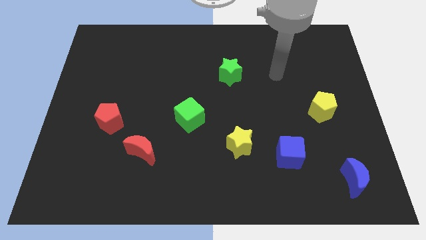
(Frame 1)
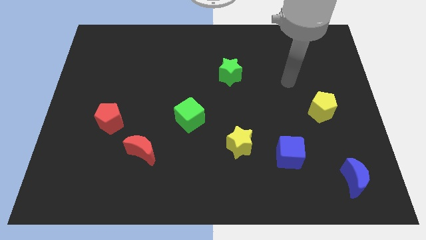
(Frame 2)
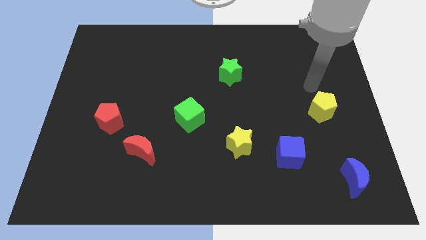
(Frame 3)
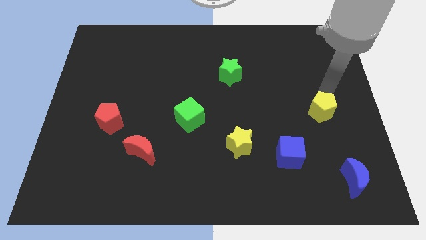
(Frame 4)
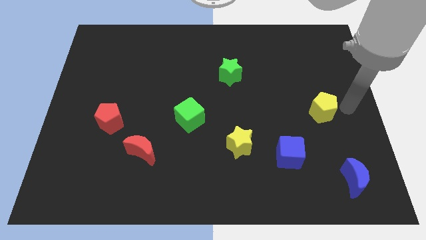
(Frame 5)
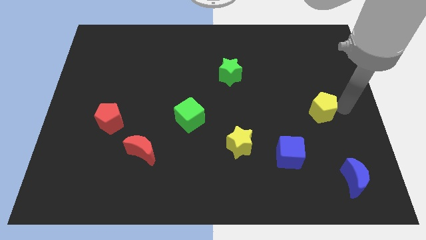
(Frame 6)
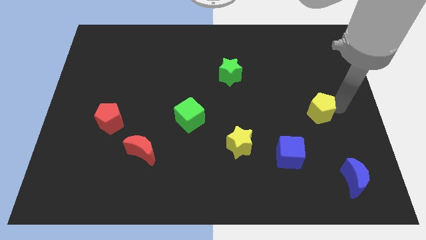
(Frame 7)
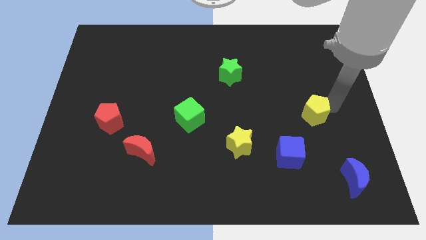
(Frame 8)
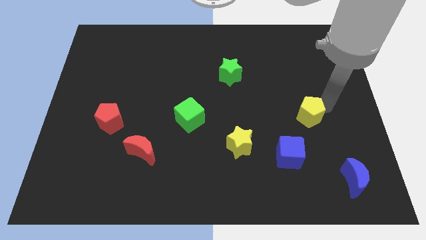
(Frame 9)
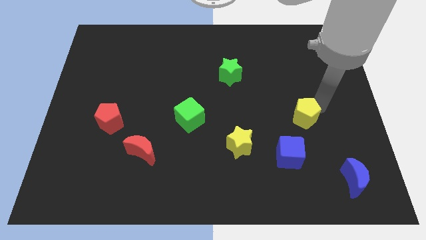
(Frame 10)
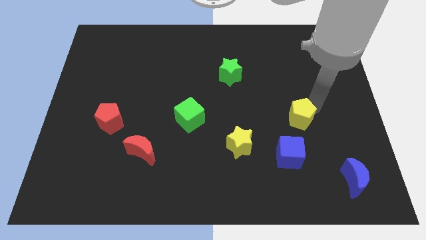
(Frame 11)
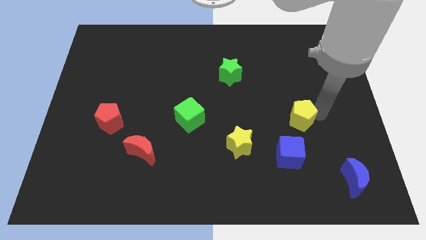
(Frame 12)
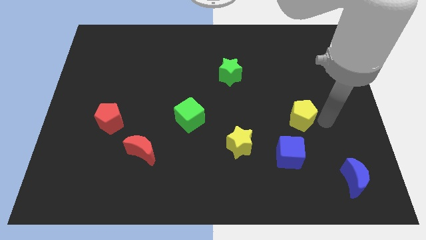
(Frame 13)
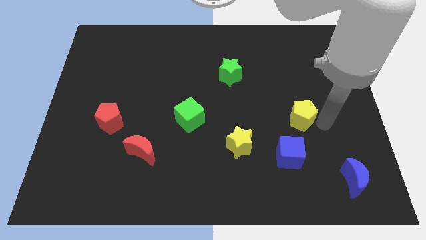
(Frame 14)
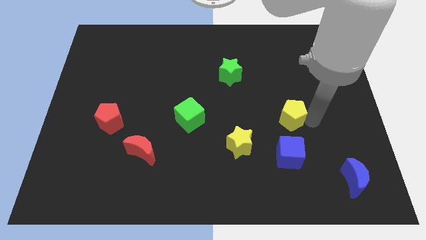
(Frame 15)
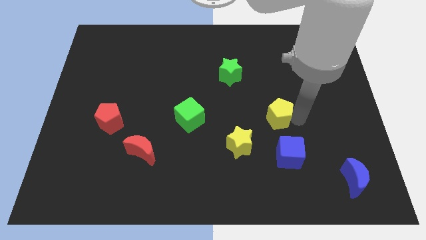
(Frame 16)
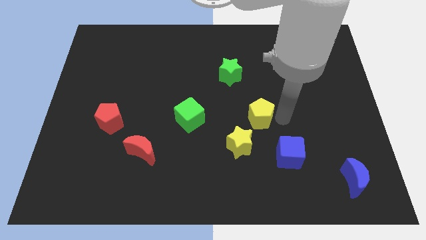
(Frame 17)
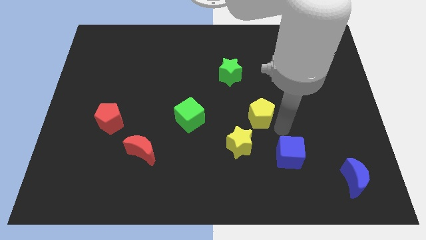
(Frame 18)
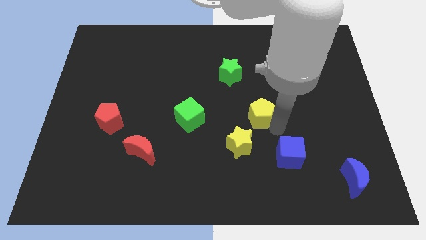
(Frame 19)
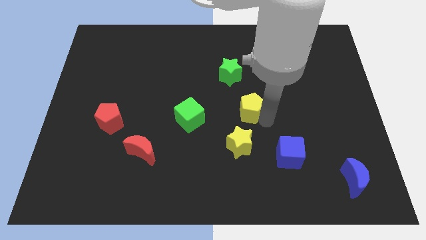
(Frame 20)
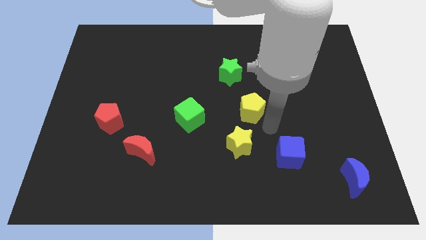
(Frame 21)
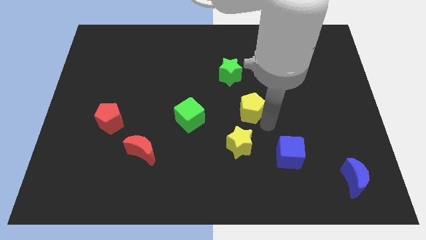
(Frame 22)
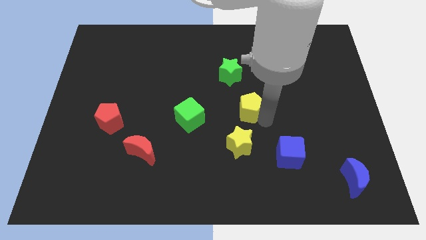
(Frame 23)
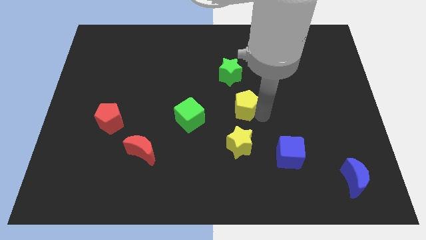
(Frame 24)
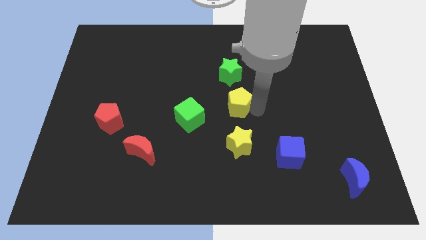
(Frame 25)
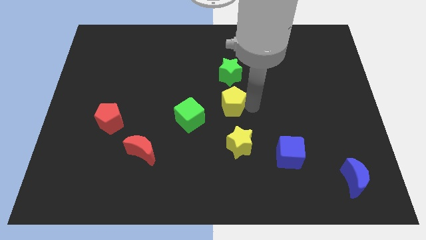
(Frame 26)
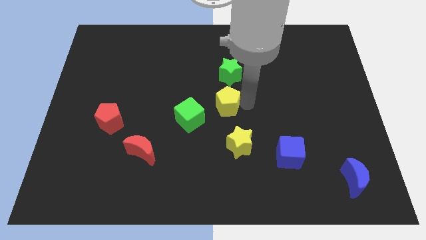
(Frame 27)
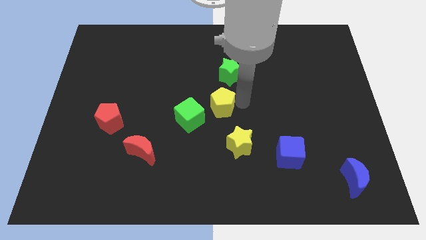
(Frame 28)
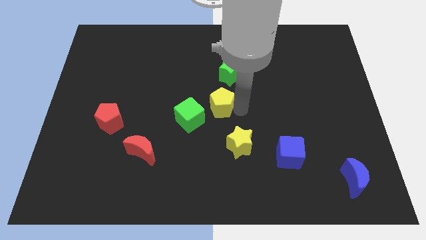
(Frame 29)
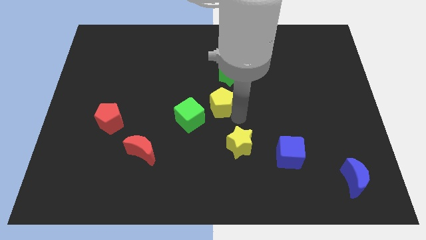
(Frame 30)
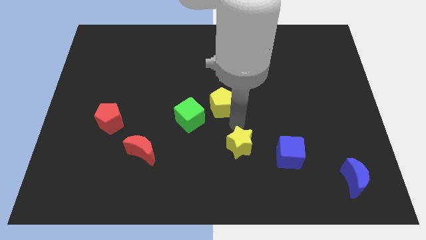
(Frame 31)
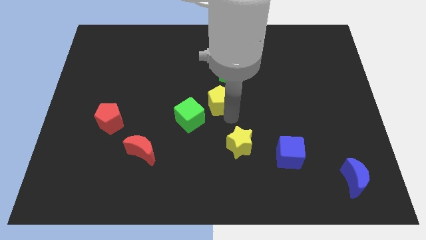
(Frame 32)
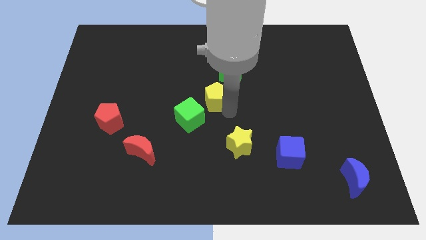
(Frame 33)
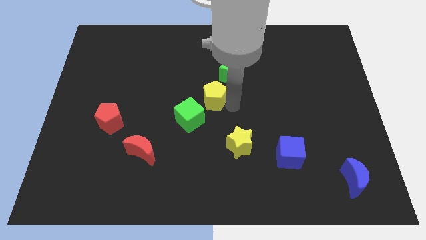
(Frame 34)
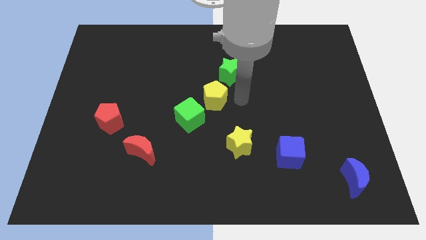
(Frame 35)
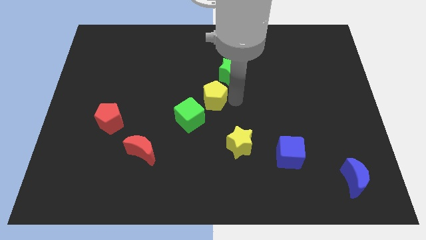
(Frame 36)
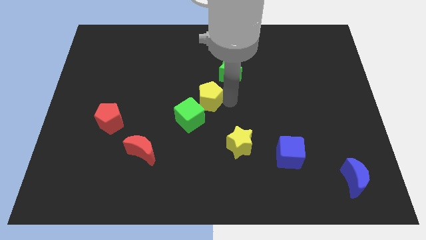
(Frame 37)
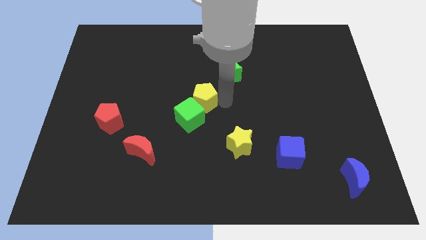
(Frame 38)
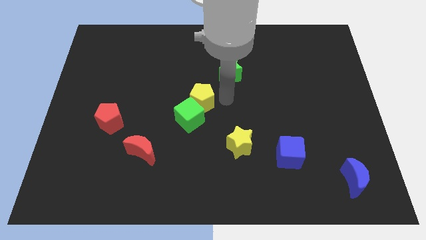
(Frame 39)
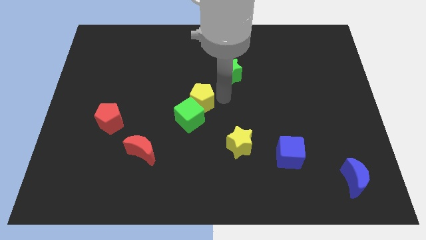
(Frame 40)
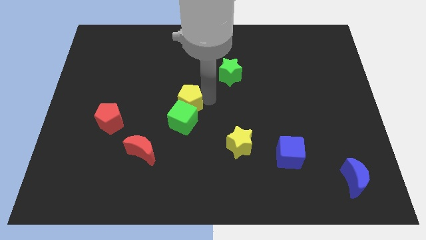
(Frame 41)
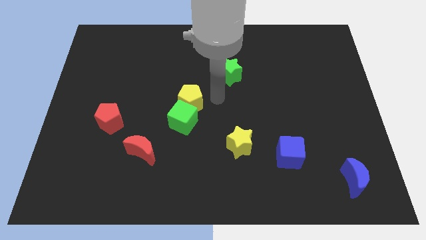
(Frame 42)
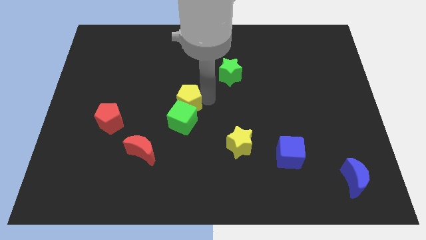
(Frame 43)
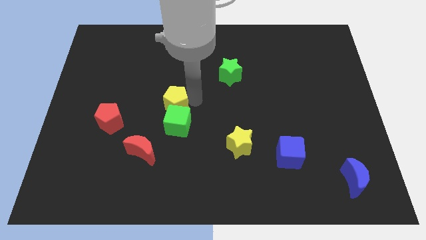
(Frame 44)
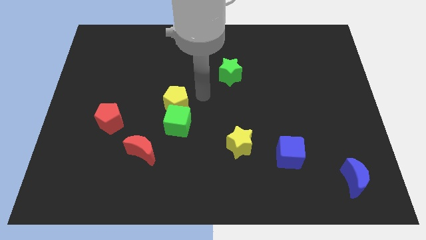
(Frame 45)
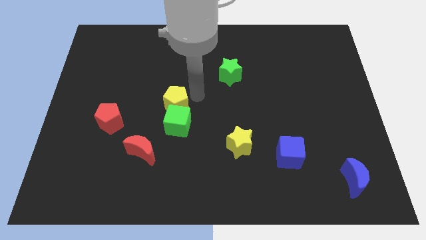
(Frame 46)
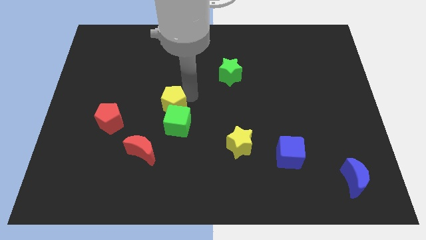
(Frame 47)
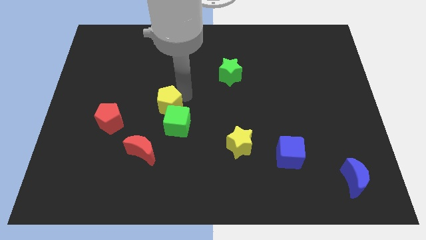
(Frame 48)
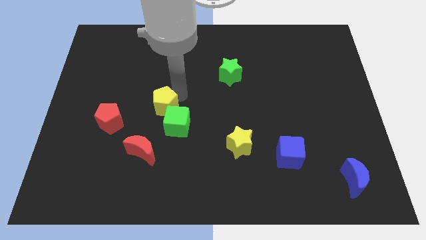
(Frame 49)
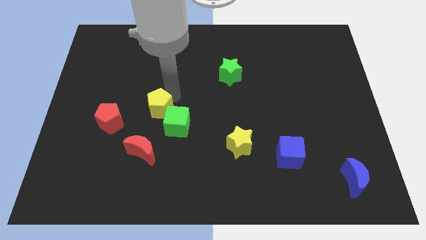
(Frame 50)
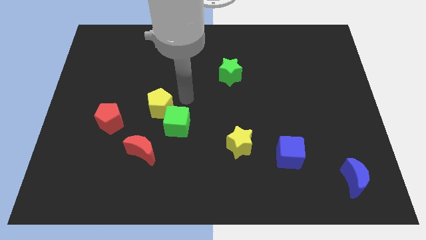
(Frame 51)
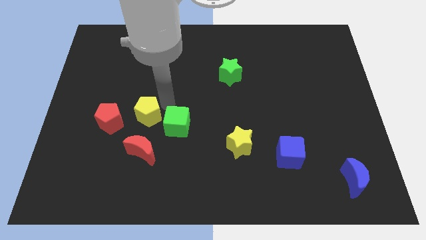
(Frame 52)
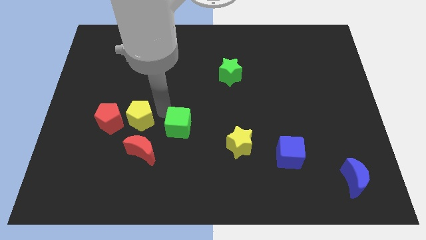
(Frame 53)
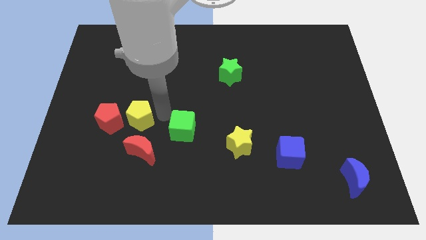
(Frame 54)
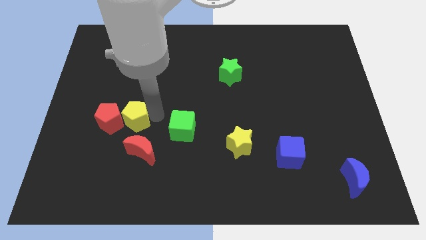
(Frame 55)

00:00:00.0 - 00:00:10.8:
push the yellow pentagon to the red pentagon

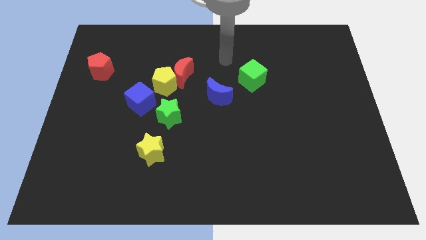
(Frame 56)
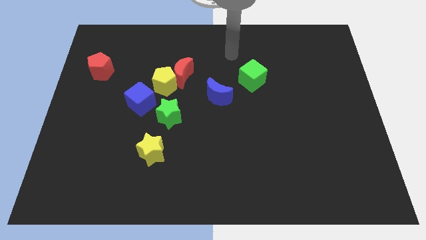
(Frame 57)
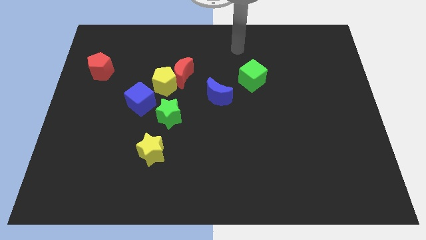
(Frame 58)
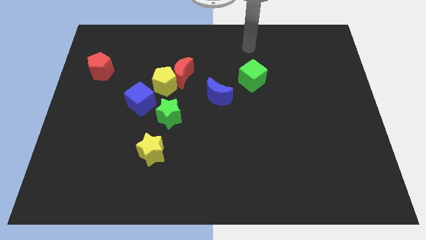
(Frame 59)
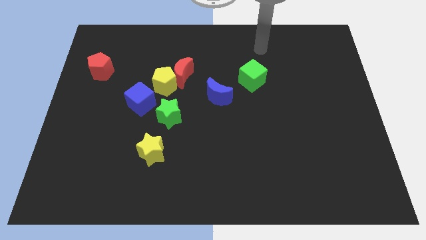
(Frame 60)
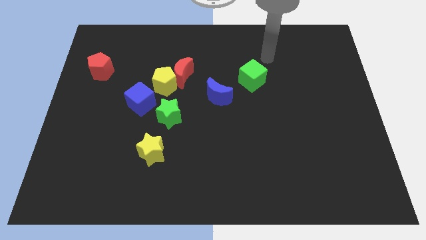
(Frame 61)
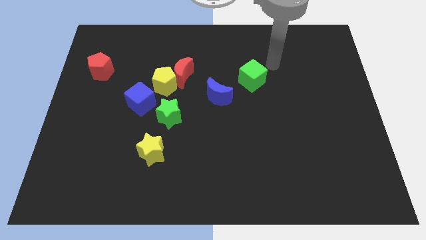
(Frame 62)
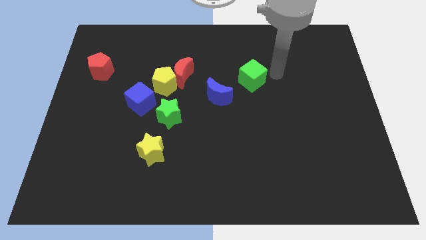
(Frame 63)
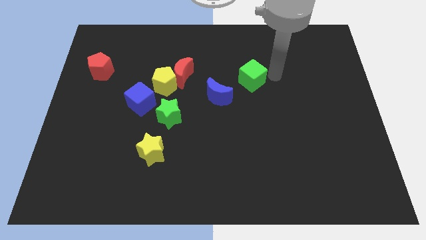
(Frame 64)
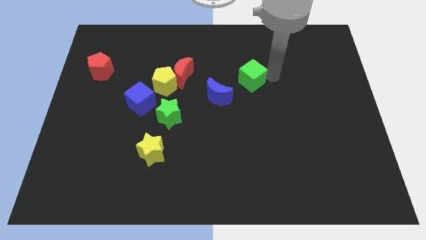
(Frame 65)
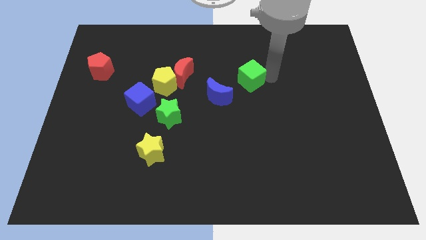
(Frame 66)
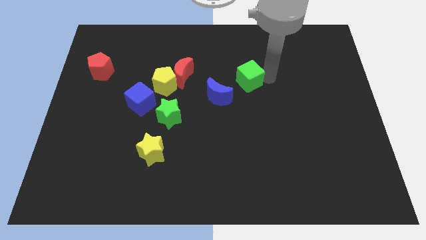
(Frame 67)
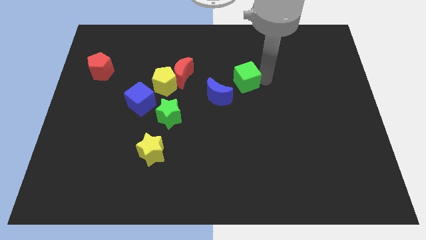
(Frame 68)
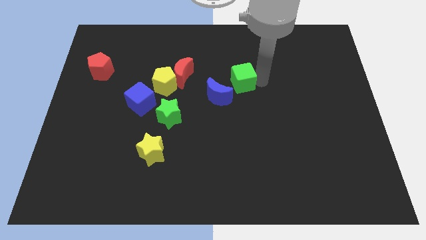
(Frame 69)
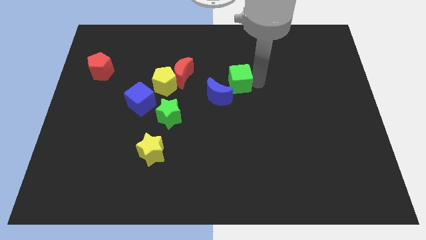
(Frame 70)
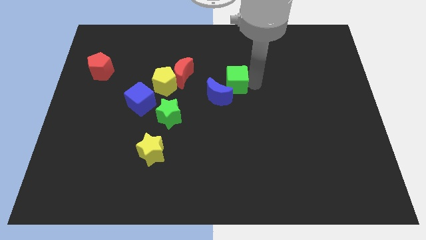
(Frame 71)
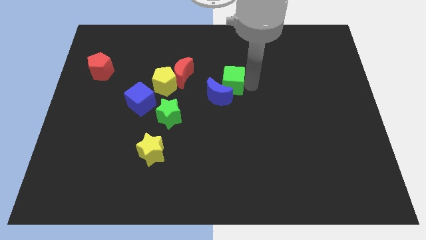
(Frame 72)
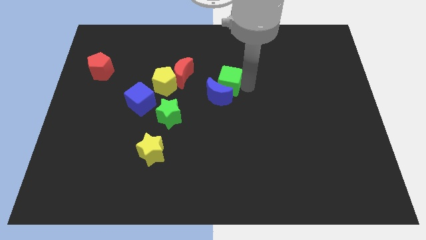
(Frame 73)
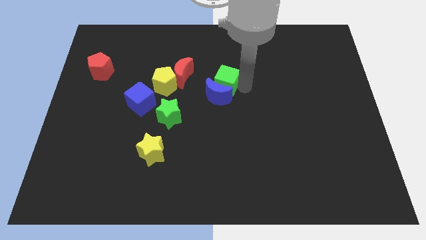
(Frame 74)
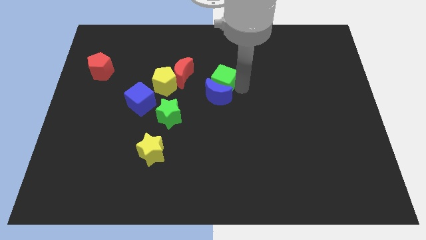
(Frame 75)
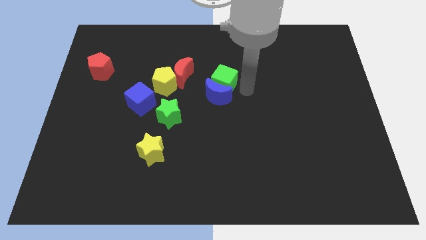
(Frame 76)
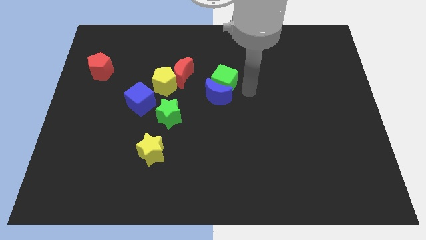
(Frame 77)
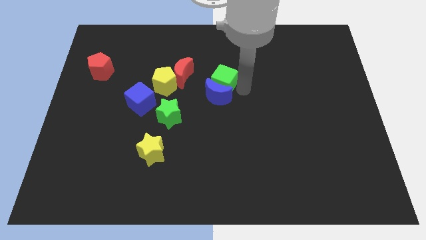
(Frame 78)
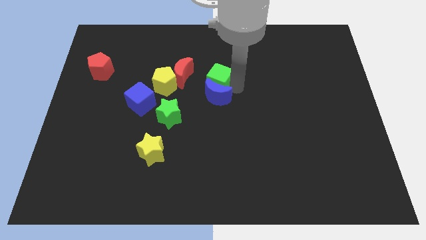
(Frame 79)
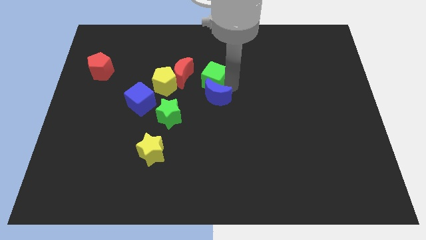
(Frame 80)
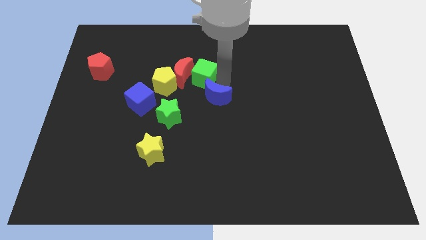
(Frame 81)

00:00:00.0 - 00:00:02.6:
push the green cube next to the red moon
